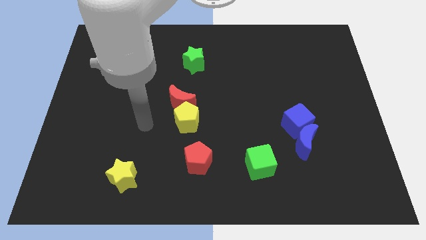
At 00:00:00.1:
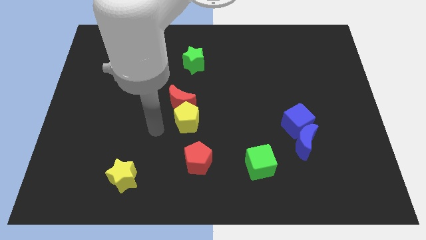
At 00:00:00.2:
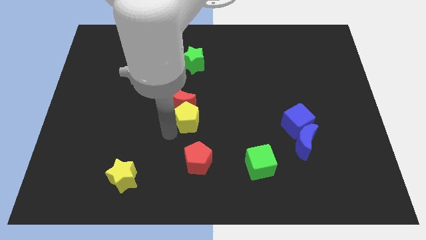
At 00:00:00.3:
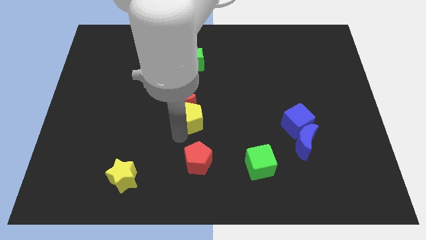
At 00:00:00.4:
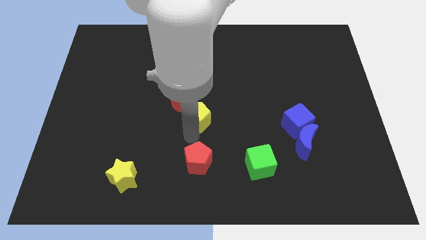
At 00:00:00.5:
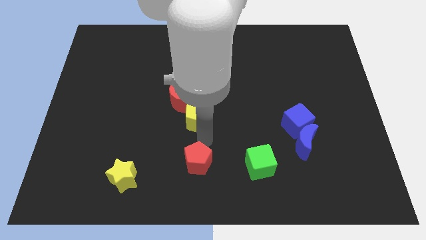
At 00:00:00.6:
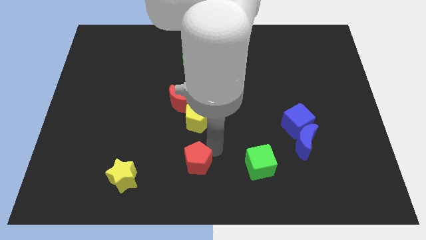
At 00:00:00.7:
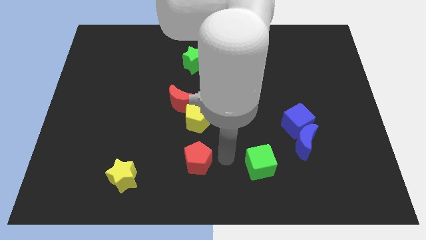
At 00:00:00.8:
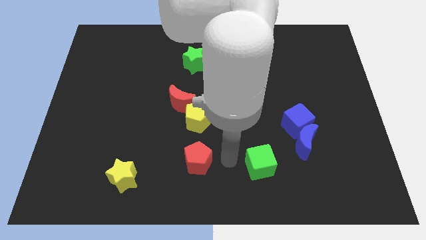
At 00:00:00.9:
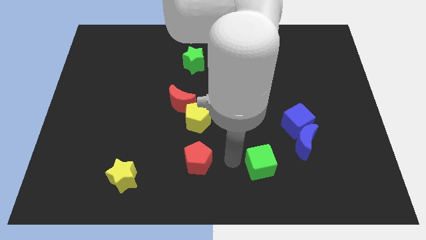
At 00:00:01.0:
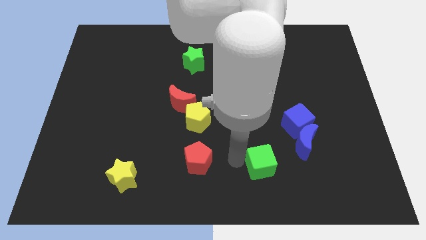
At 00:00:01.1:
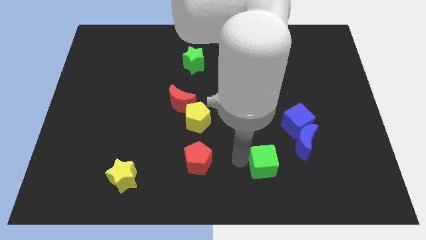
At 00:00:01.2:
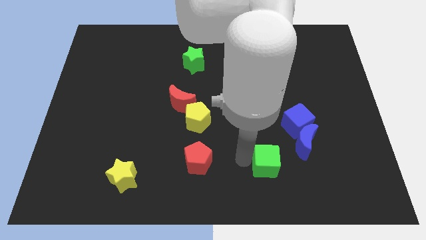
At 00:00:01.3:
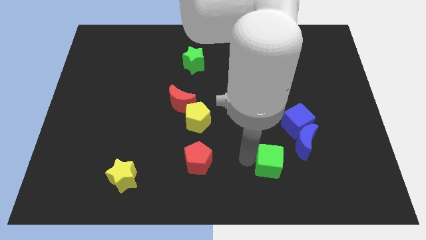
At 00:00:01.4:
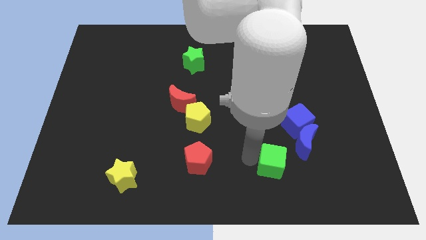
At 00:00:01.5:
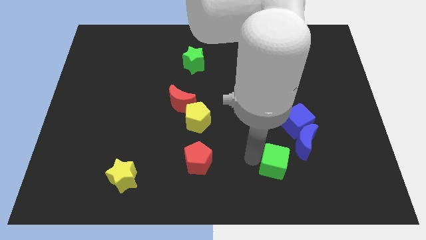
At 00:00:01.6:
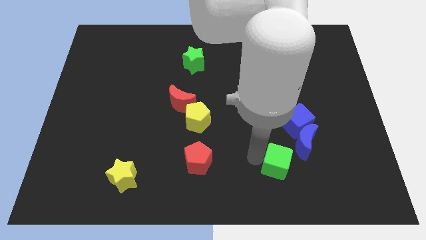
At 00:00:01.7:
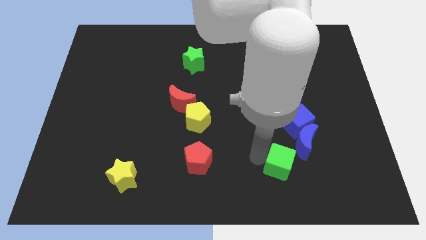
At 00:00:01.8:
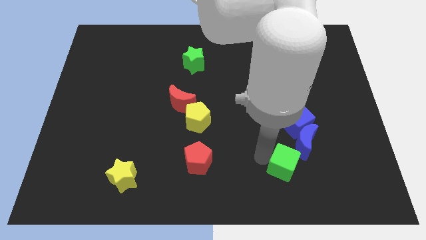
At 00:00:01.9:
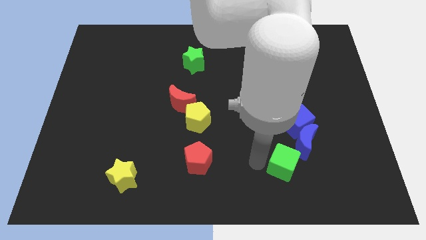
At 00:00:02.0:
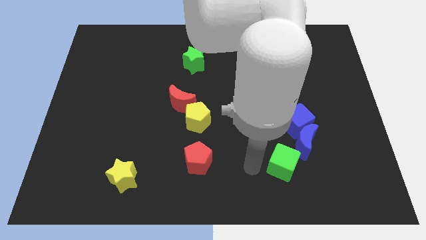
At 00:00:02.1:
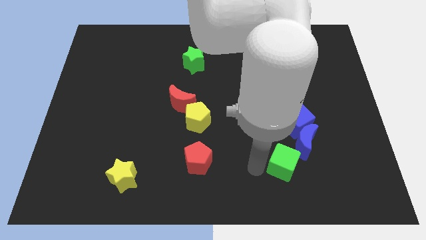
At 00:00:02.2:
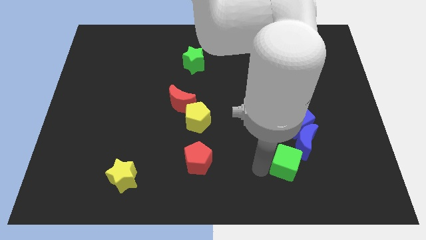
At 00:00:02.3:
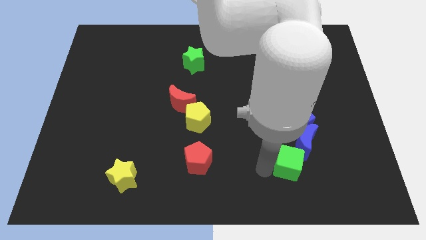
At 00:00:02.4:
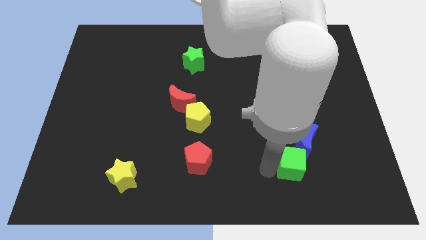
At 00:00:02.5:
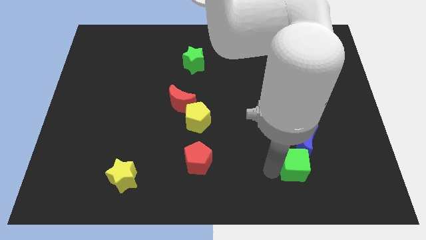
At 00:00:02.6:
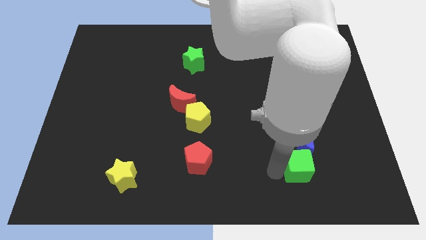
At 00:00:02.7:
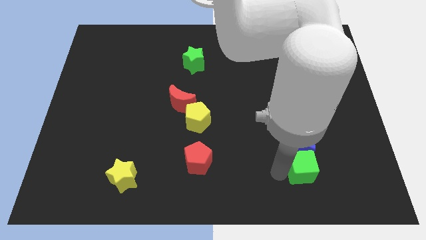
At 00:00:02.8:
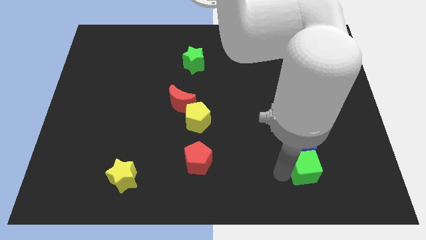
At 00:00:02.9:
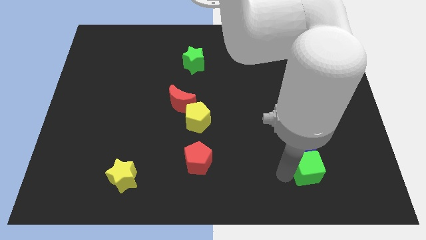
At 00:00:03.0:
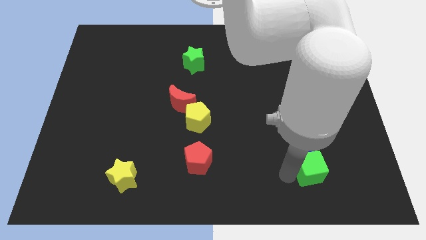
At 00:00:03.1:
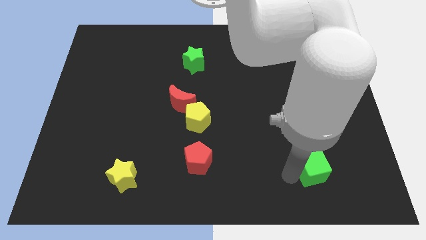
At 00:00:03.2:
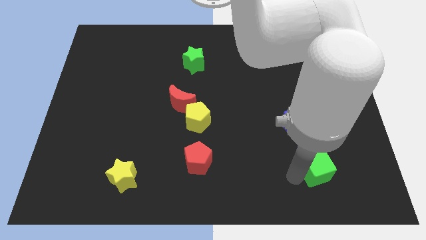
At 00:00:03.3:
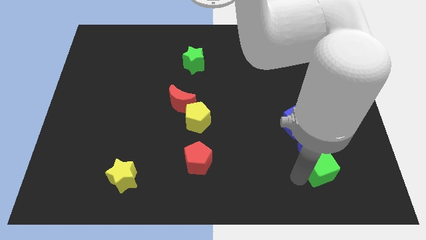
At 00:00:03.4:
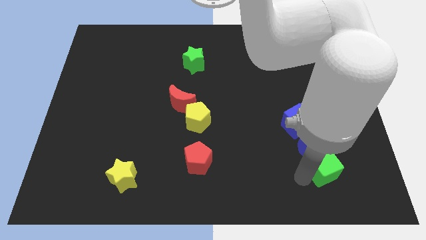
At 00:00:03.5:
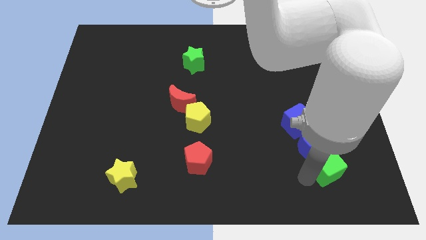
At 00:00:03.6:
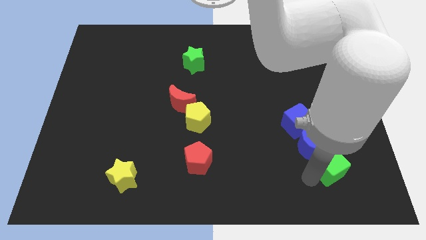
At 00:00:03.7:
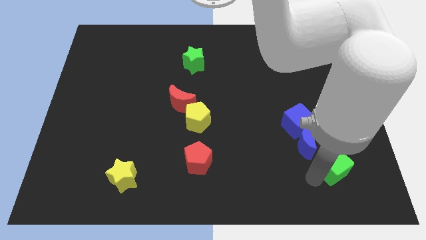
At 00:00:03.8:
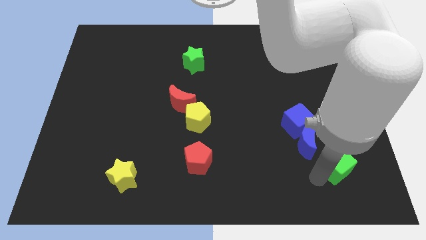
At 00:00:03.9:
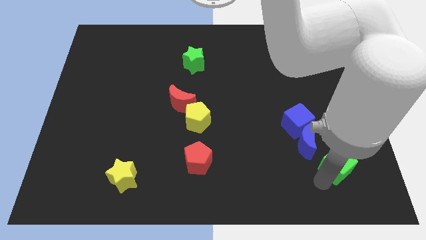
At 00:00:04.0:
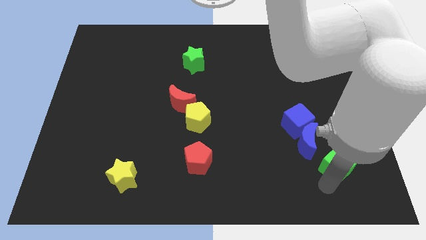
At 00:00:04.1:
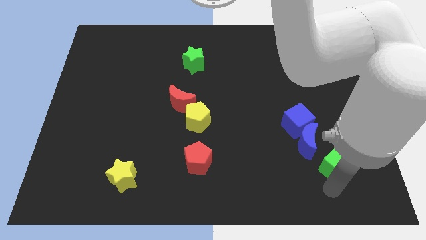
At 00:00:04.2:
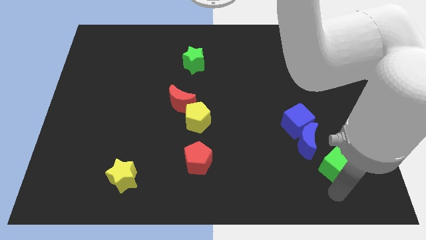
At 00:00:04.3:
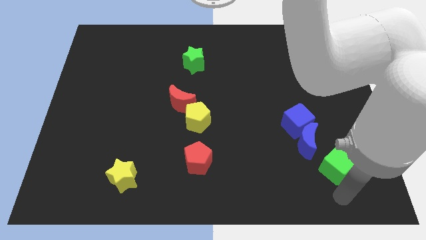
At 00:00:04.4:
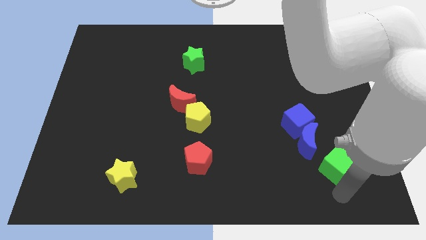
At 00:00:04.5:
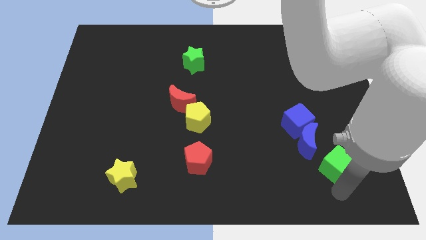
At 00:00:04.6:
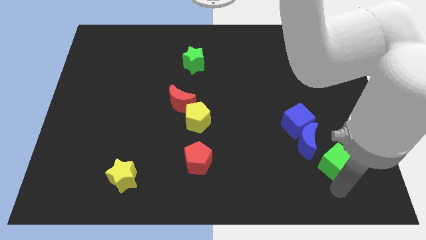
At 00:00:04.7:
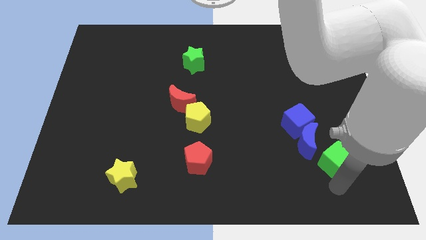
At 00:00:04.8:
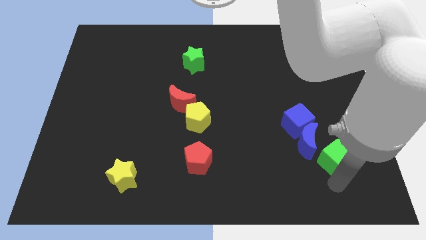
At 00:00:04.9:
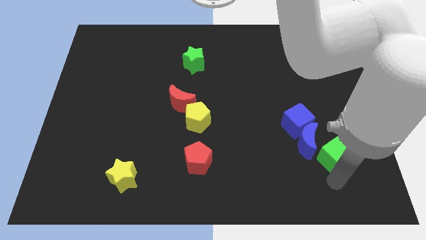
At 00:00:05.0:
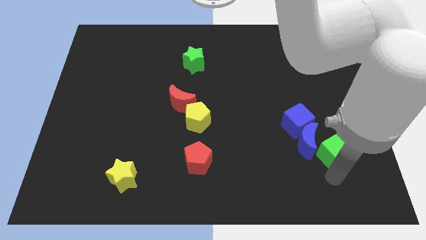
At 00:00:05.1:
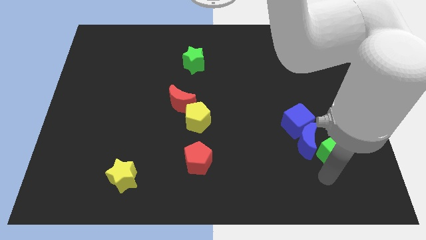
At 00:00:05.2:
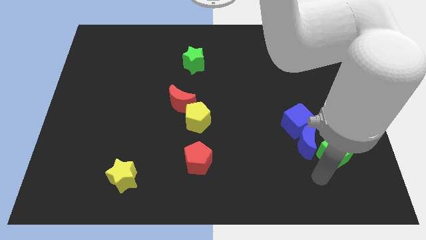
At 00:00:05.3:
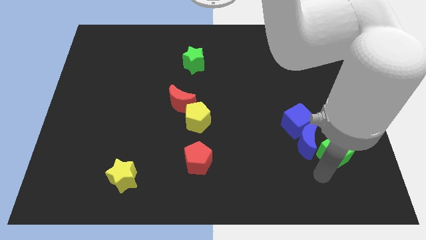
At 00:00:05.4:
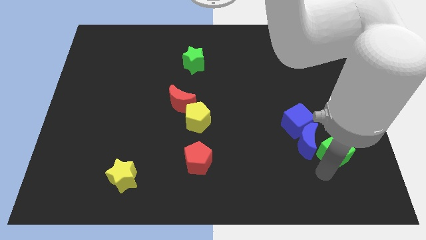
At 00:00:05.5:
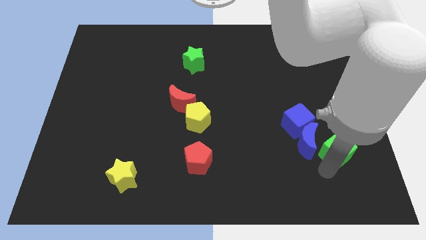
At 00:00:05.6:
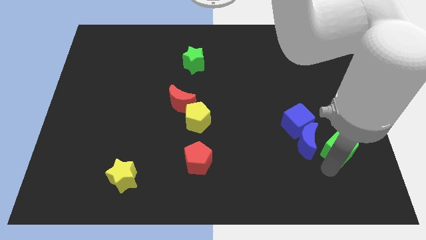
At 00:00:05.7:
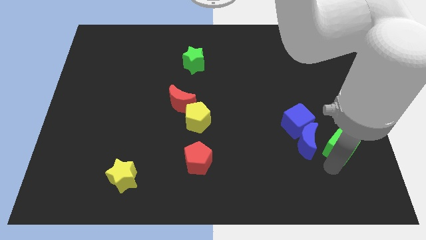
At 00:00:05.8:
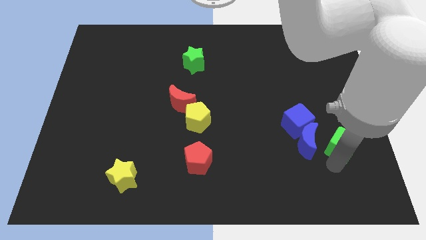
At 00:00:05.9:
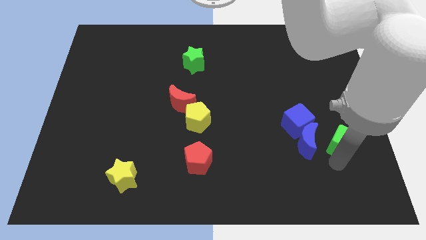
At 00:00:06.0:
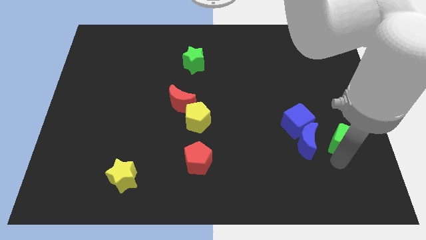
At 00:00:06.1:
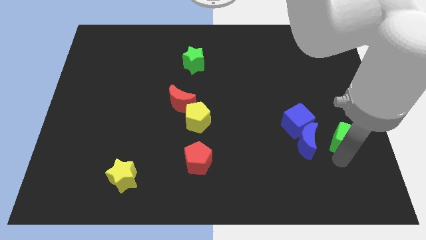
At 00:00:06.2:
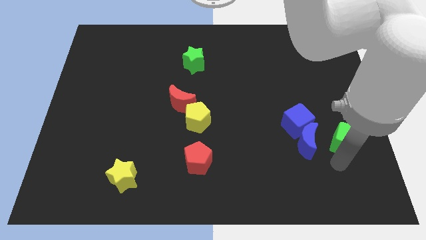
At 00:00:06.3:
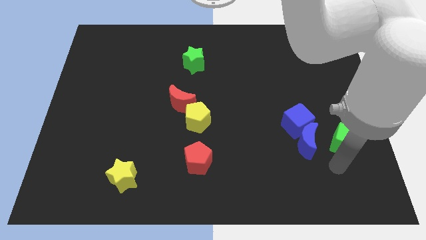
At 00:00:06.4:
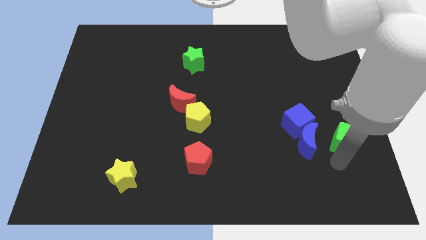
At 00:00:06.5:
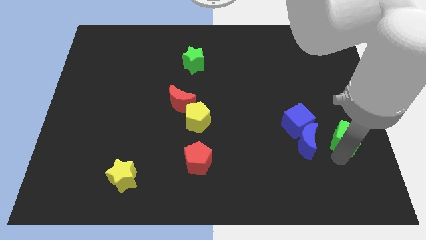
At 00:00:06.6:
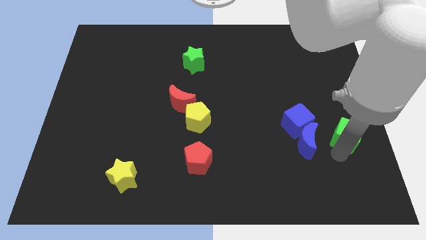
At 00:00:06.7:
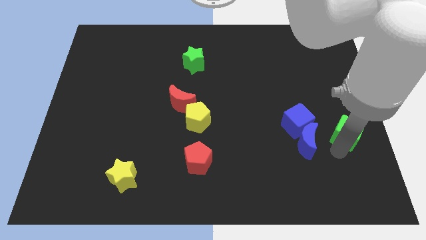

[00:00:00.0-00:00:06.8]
put the green cube to the right side
